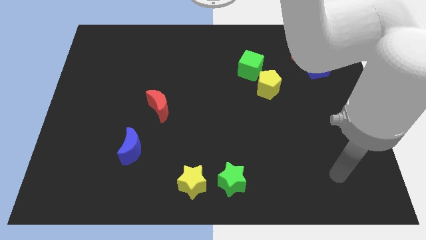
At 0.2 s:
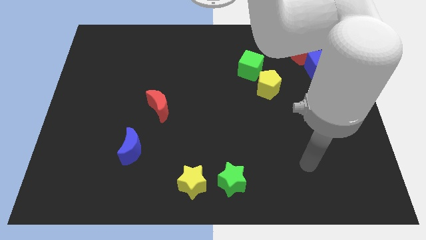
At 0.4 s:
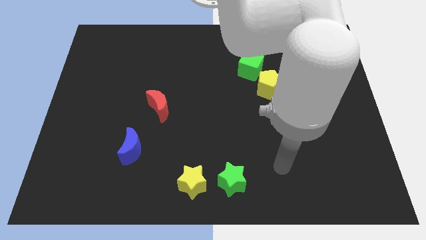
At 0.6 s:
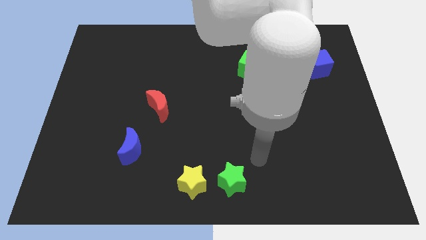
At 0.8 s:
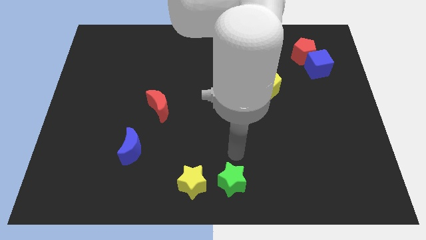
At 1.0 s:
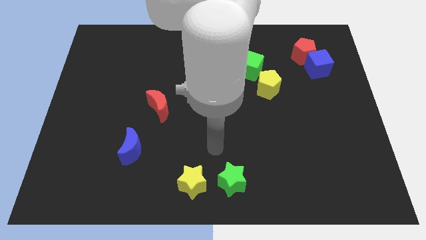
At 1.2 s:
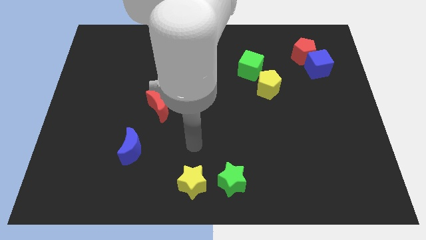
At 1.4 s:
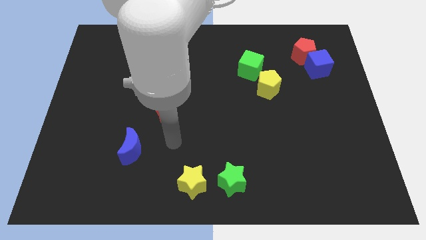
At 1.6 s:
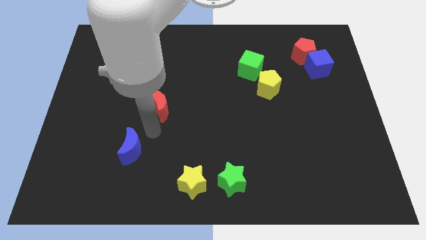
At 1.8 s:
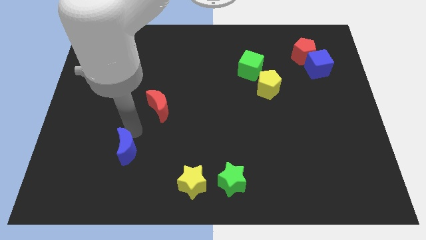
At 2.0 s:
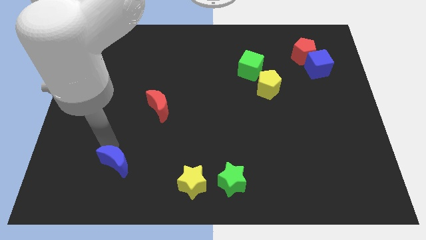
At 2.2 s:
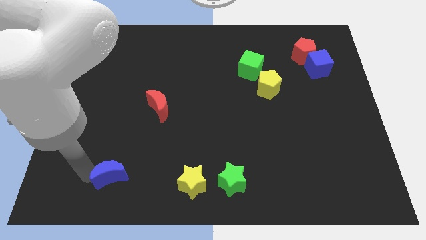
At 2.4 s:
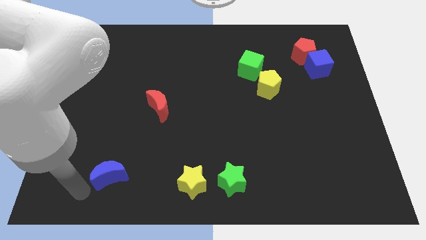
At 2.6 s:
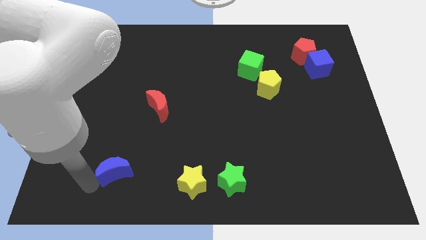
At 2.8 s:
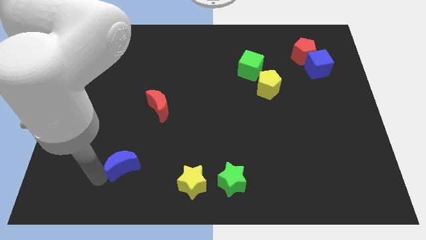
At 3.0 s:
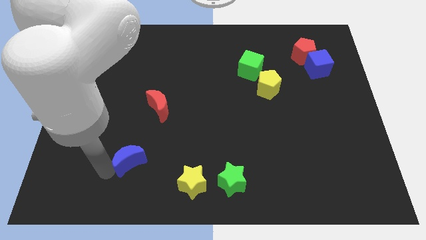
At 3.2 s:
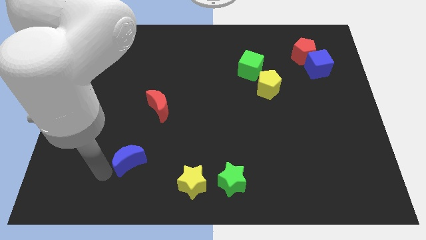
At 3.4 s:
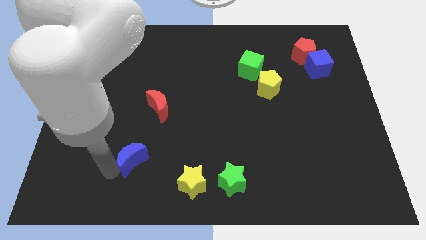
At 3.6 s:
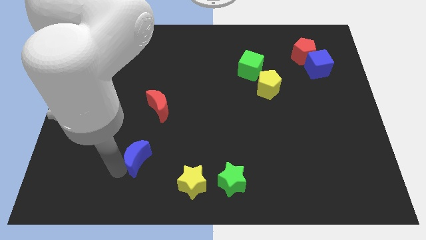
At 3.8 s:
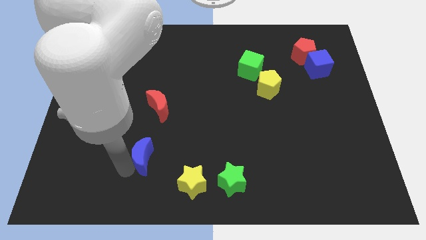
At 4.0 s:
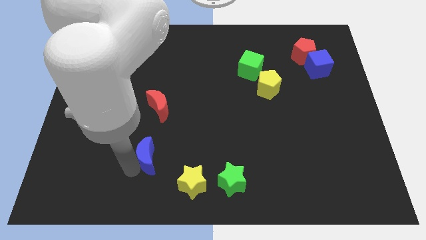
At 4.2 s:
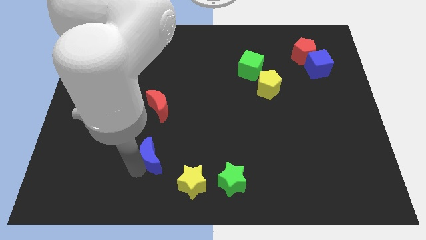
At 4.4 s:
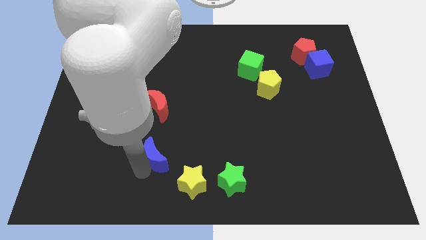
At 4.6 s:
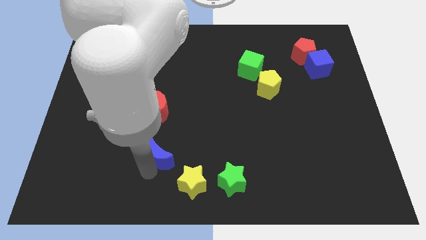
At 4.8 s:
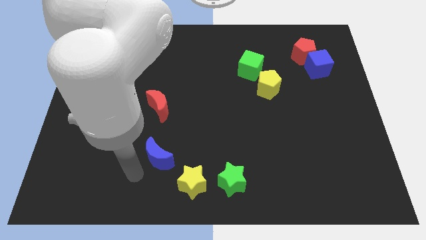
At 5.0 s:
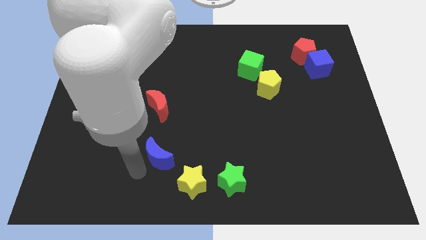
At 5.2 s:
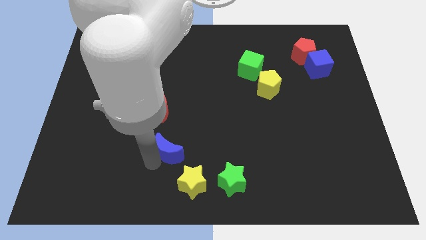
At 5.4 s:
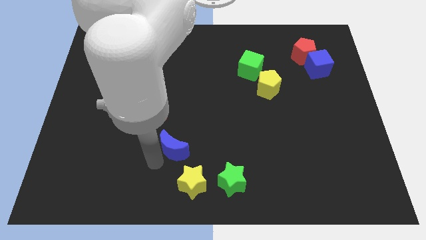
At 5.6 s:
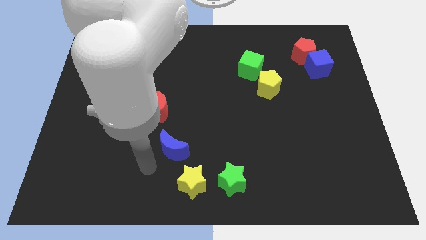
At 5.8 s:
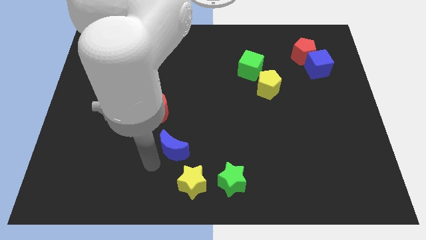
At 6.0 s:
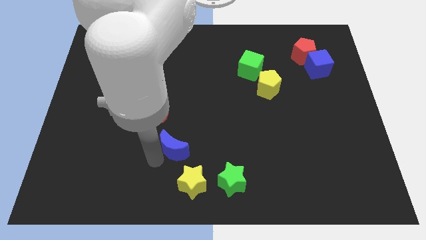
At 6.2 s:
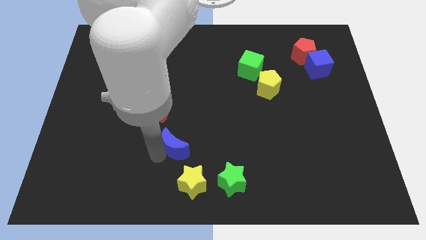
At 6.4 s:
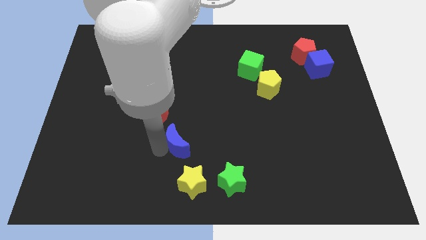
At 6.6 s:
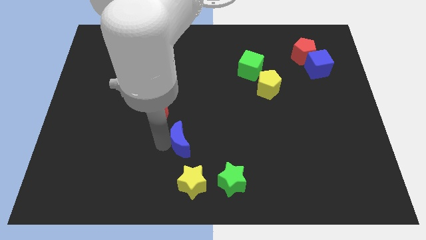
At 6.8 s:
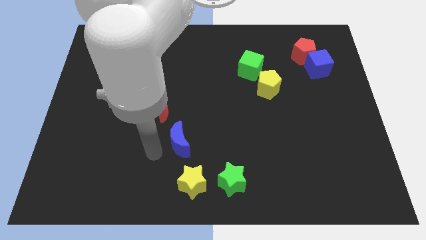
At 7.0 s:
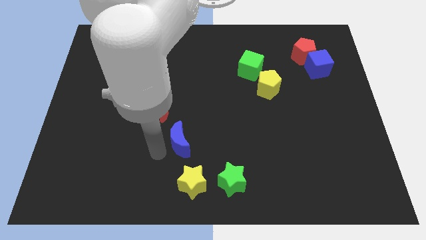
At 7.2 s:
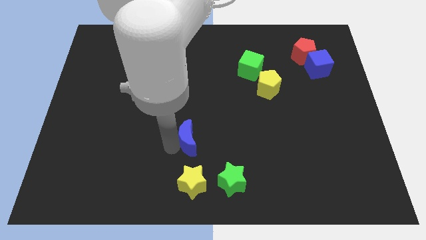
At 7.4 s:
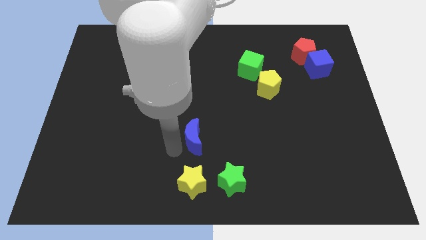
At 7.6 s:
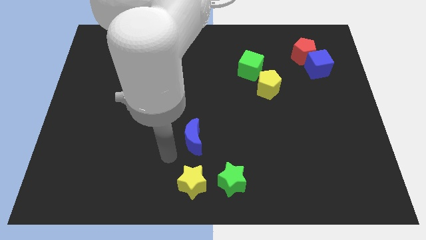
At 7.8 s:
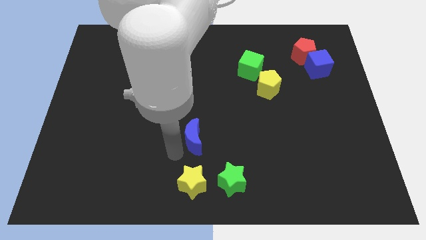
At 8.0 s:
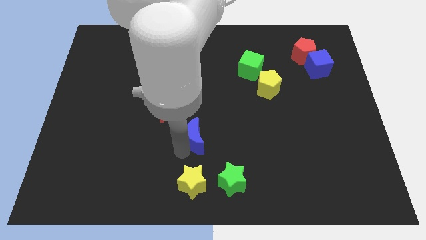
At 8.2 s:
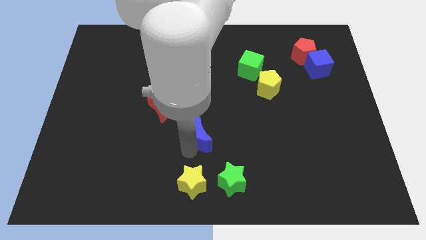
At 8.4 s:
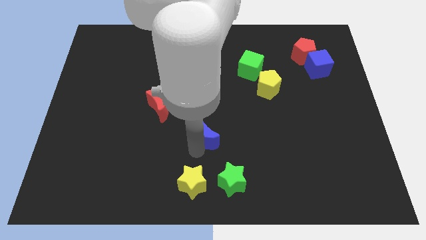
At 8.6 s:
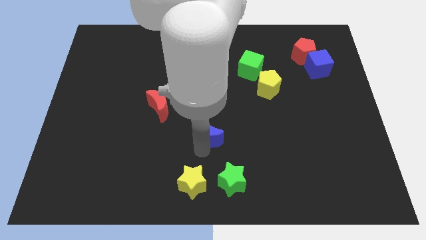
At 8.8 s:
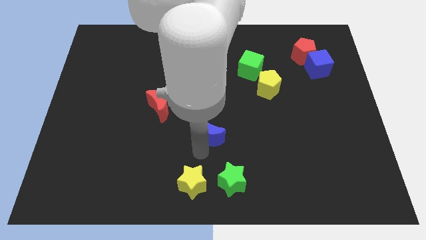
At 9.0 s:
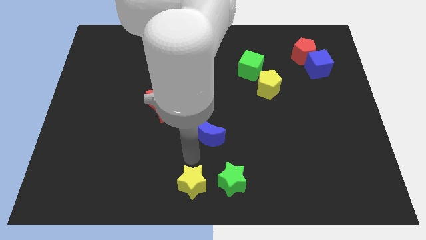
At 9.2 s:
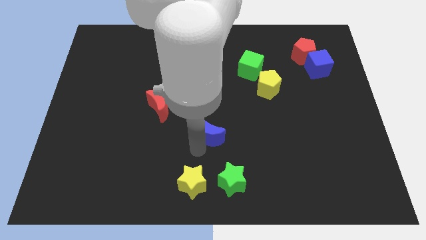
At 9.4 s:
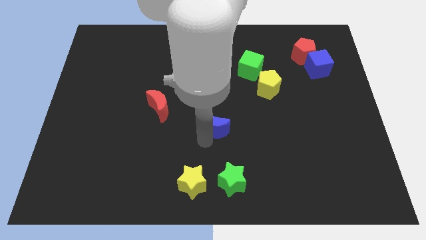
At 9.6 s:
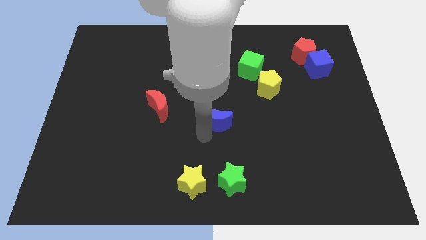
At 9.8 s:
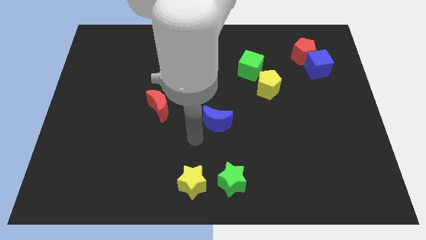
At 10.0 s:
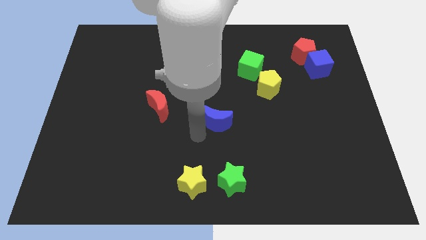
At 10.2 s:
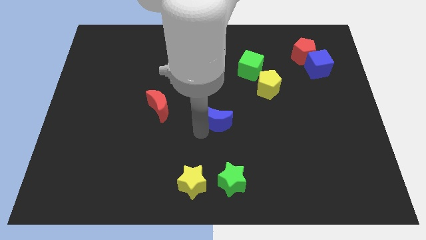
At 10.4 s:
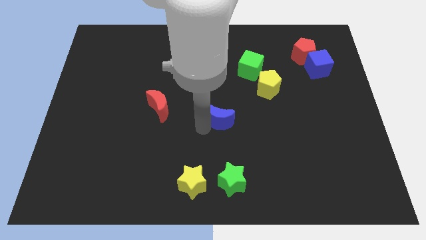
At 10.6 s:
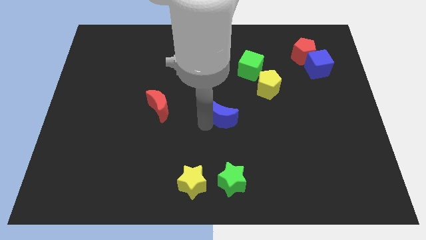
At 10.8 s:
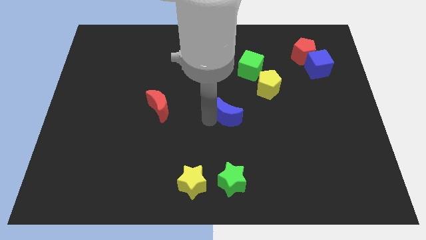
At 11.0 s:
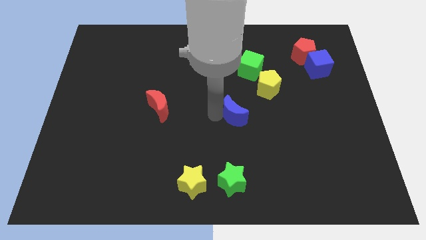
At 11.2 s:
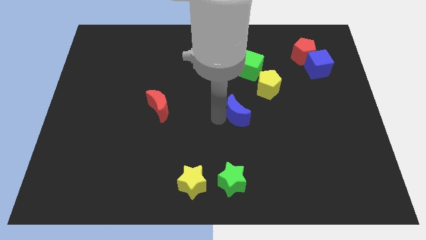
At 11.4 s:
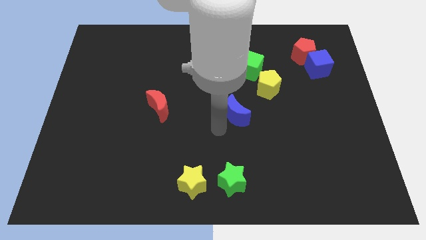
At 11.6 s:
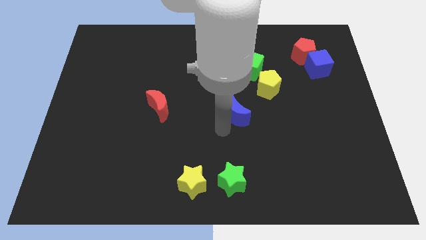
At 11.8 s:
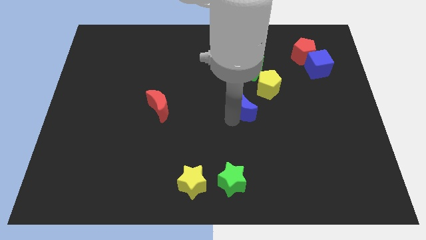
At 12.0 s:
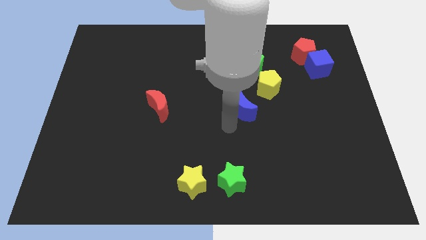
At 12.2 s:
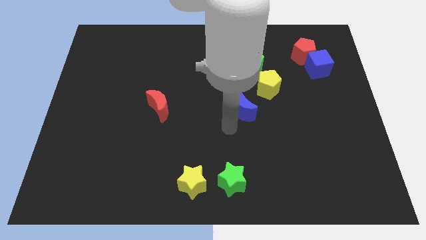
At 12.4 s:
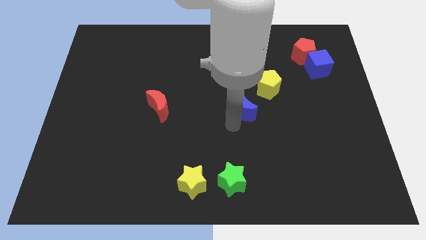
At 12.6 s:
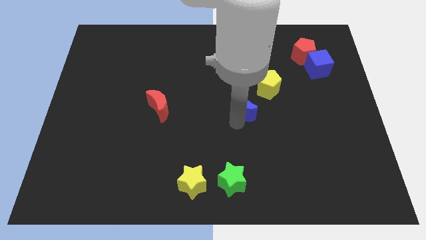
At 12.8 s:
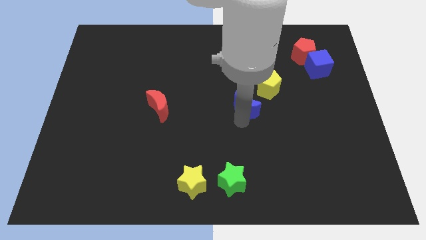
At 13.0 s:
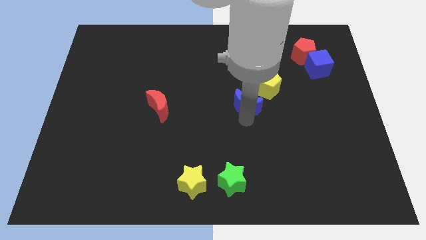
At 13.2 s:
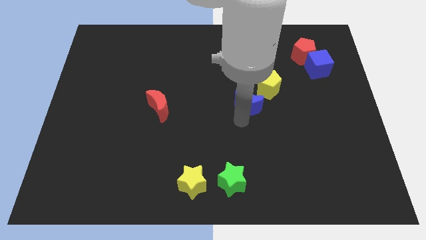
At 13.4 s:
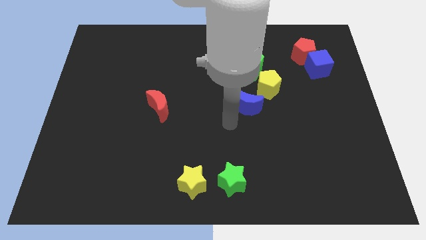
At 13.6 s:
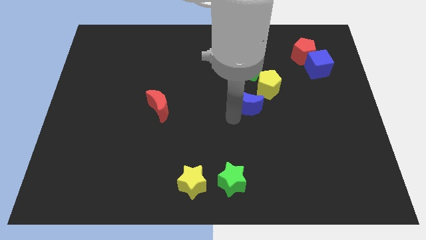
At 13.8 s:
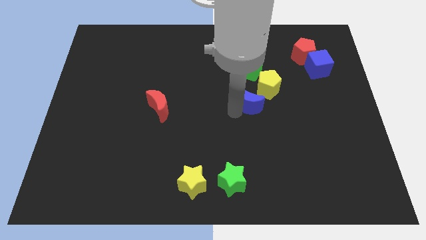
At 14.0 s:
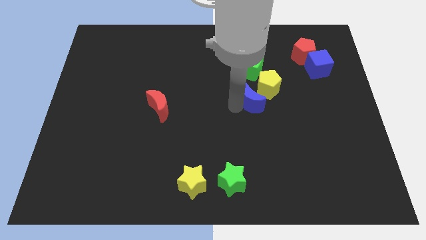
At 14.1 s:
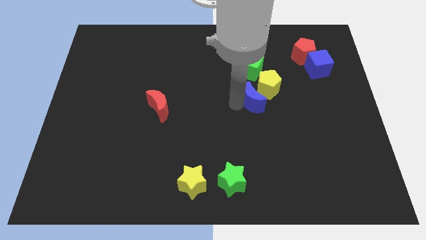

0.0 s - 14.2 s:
slide the blue moon towards the yellow pentagon

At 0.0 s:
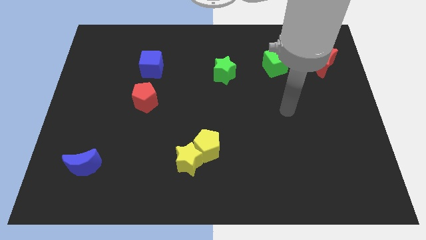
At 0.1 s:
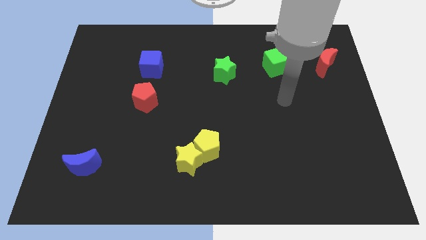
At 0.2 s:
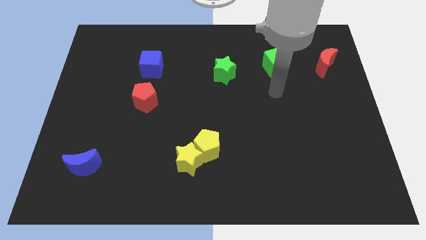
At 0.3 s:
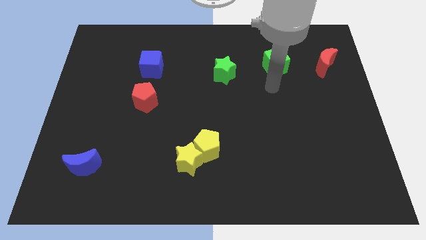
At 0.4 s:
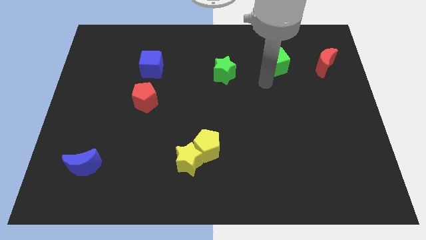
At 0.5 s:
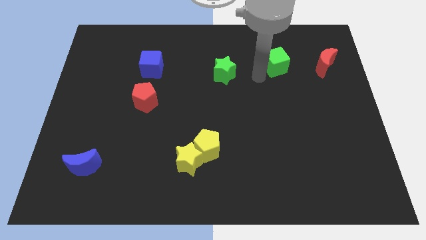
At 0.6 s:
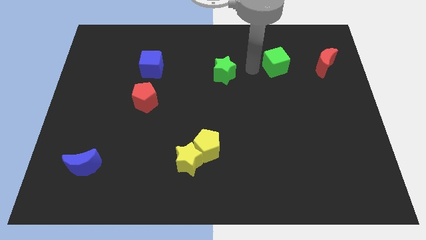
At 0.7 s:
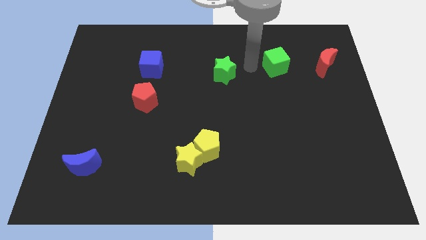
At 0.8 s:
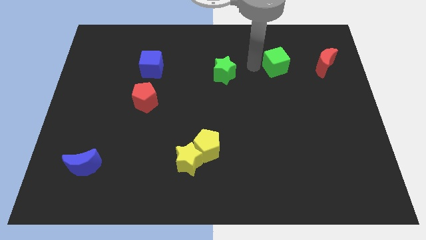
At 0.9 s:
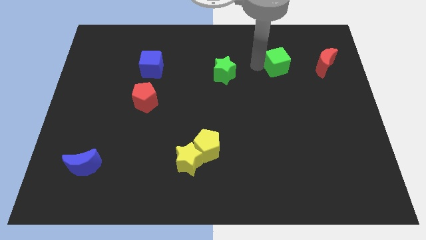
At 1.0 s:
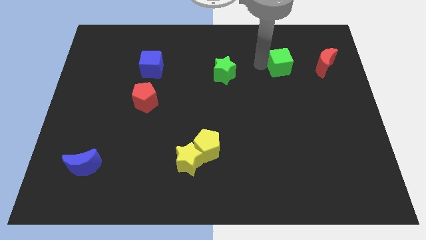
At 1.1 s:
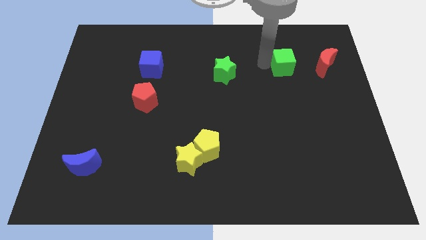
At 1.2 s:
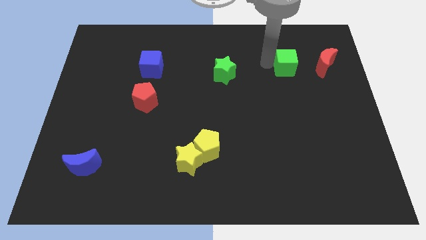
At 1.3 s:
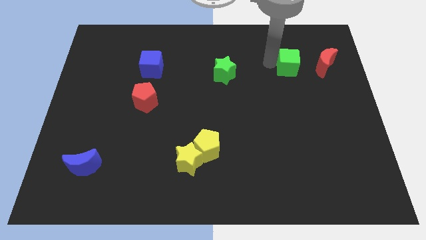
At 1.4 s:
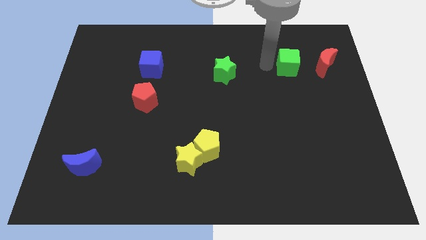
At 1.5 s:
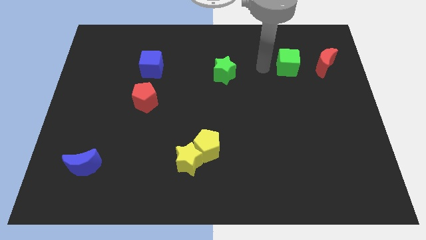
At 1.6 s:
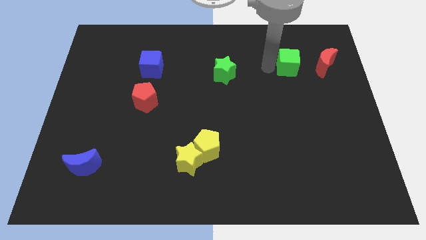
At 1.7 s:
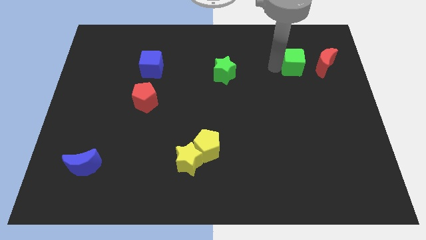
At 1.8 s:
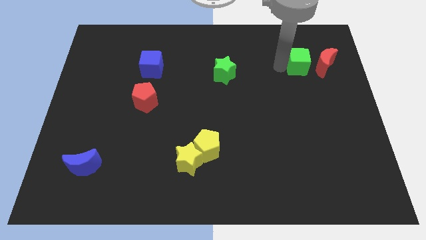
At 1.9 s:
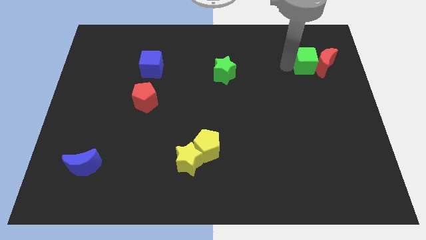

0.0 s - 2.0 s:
put the green cube to the red moon
